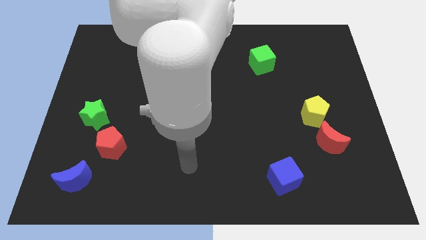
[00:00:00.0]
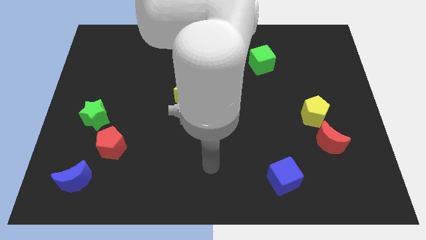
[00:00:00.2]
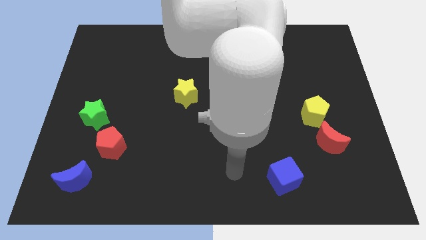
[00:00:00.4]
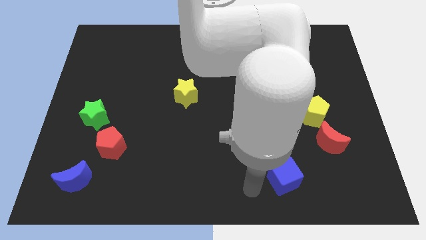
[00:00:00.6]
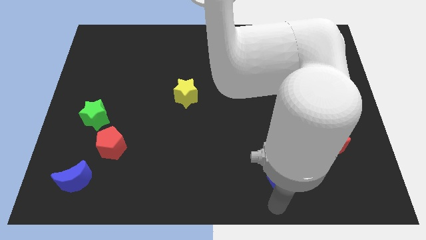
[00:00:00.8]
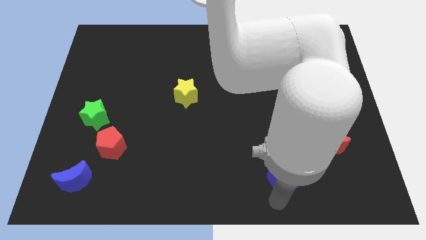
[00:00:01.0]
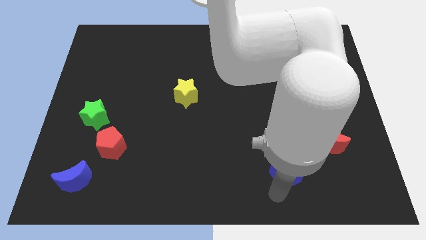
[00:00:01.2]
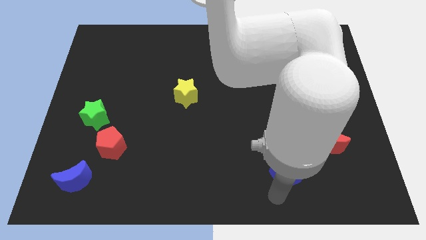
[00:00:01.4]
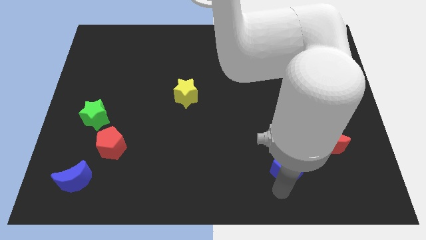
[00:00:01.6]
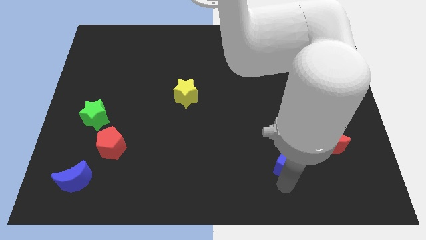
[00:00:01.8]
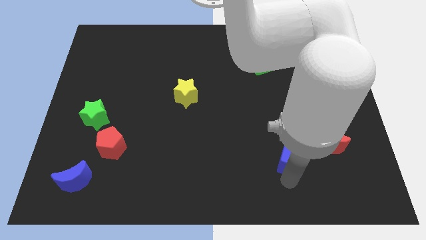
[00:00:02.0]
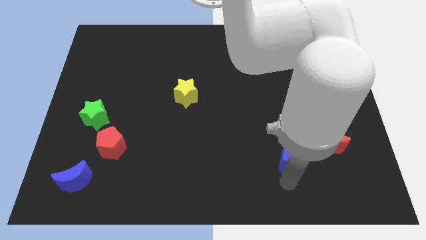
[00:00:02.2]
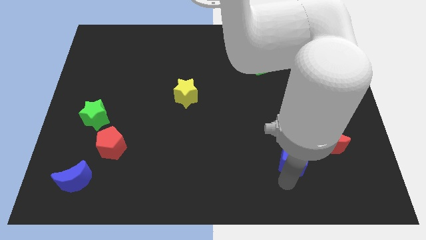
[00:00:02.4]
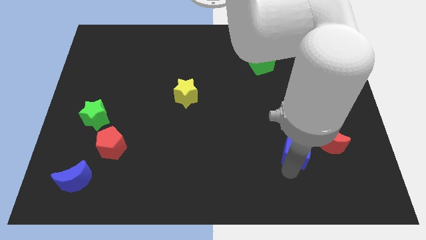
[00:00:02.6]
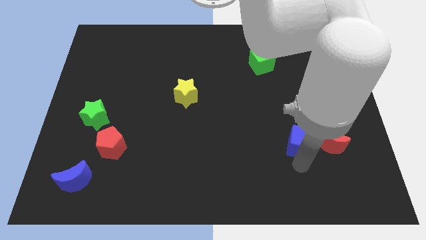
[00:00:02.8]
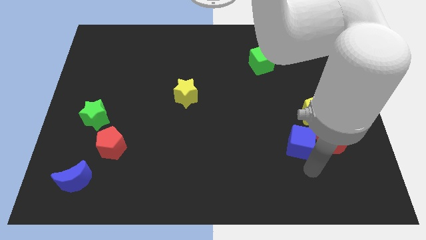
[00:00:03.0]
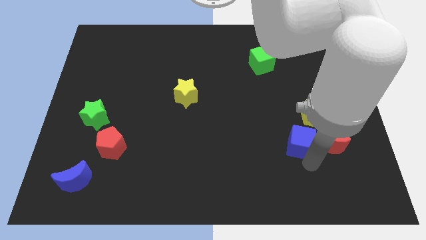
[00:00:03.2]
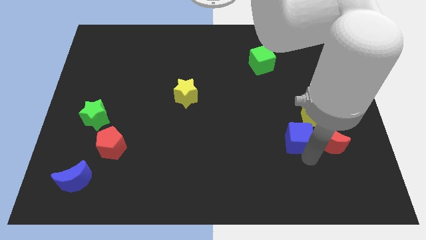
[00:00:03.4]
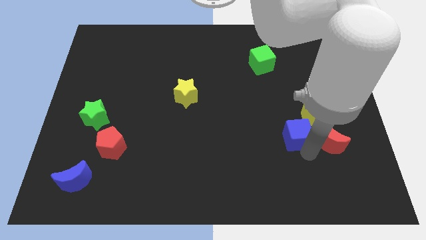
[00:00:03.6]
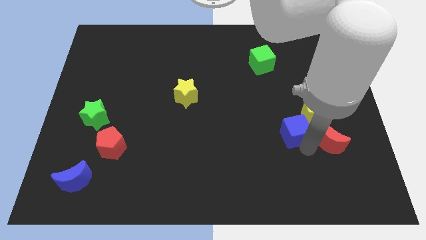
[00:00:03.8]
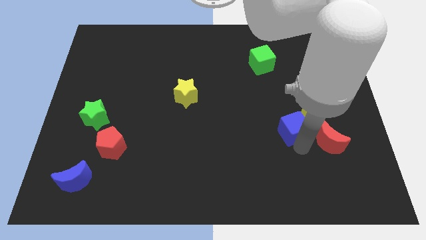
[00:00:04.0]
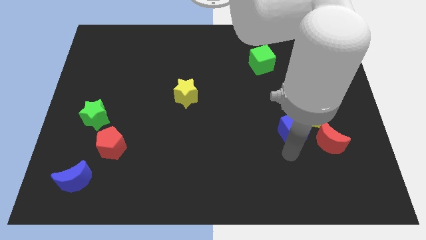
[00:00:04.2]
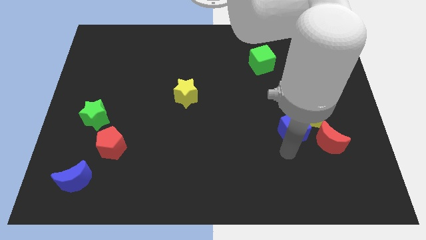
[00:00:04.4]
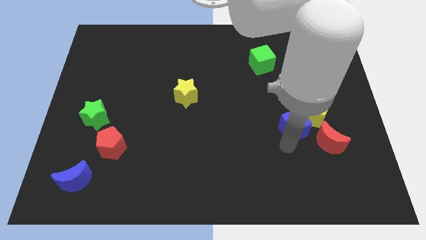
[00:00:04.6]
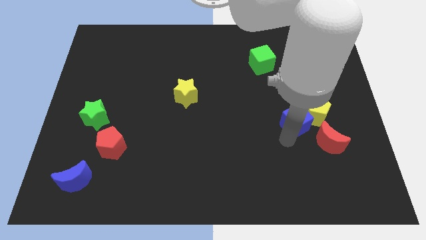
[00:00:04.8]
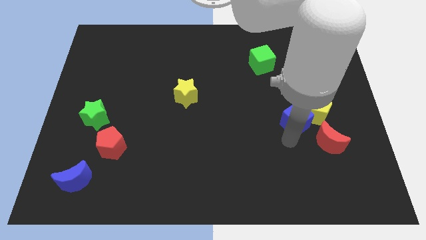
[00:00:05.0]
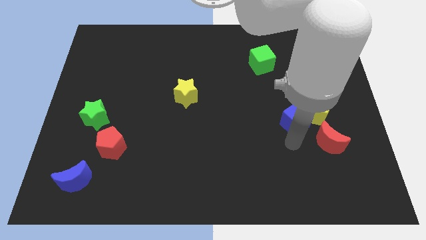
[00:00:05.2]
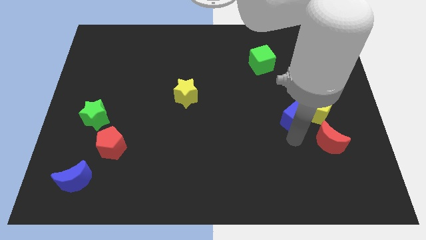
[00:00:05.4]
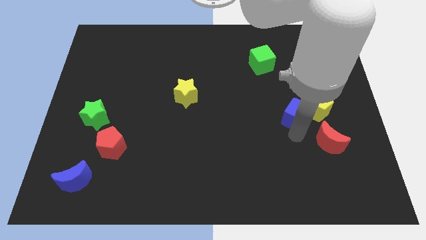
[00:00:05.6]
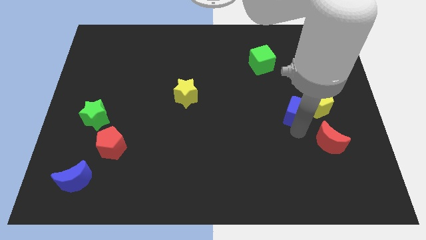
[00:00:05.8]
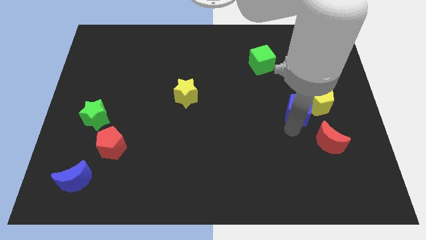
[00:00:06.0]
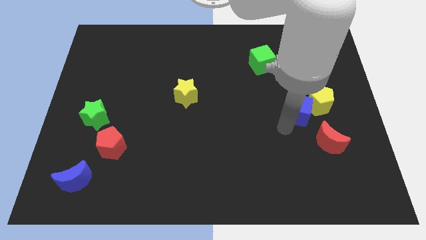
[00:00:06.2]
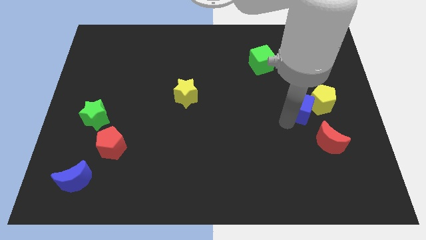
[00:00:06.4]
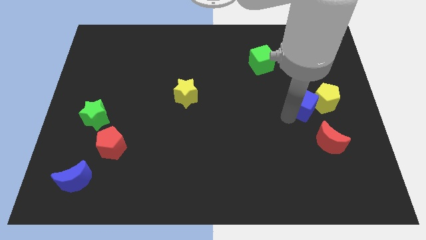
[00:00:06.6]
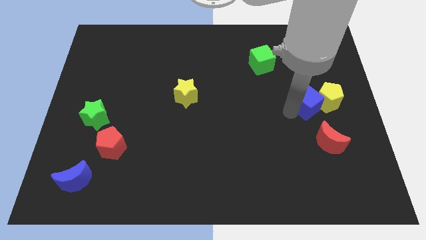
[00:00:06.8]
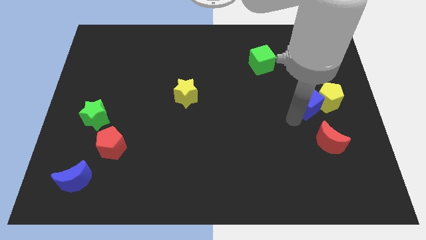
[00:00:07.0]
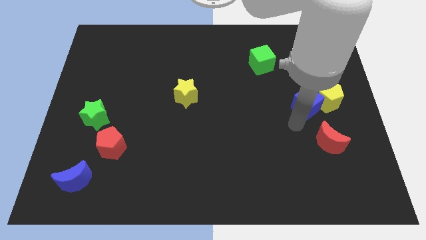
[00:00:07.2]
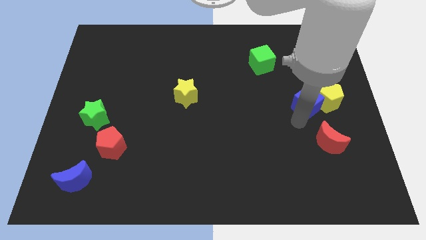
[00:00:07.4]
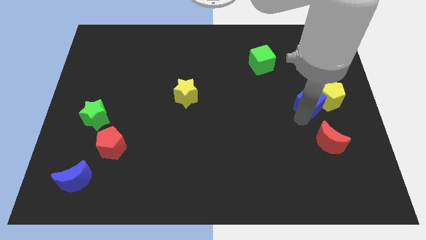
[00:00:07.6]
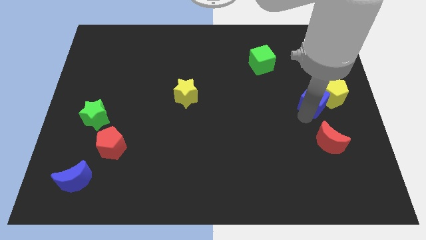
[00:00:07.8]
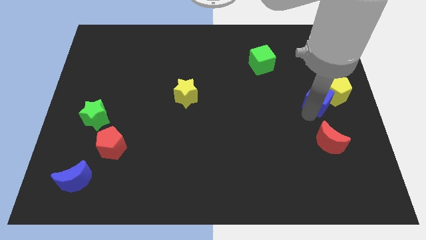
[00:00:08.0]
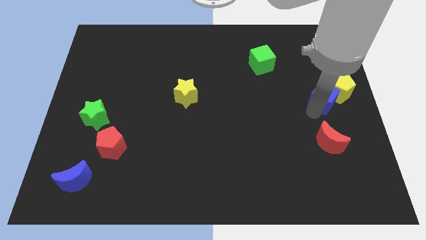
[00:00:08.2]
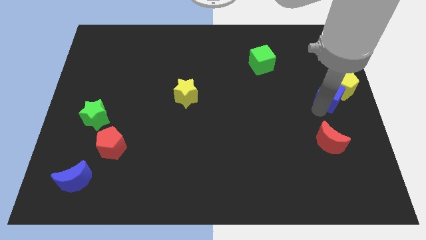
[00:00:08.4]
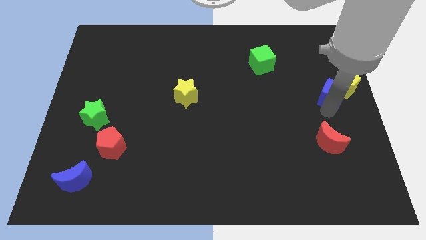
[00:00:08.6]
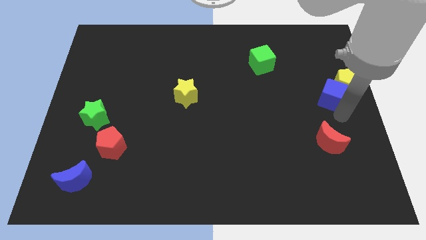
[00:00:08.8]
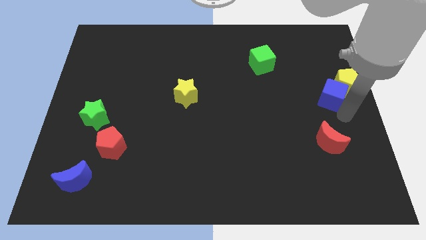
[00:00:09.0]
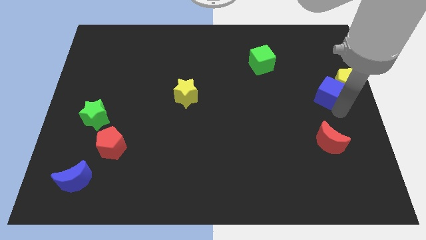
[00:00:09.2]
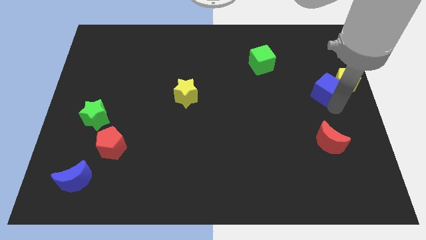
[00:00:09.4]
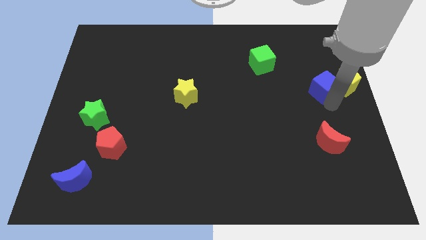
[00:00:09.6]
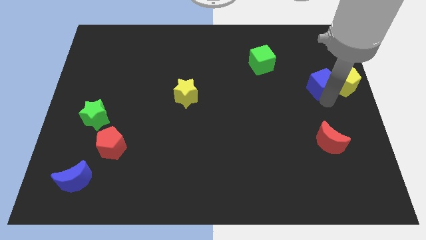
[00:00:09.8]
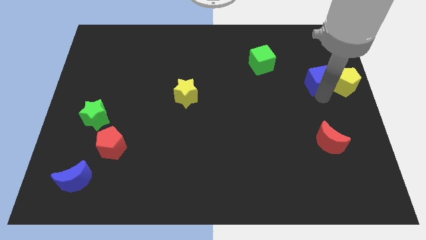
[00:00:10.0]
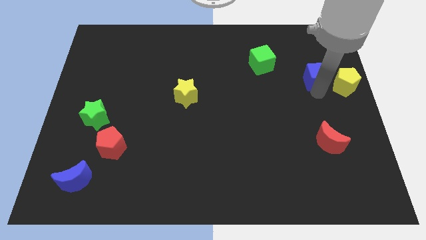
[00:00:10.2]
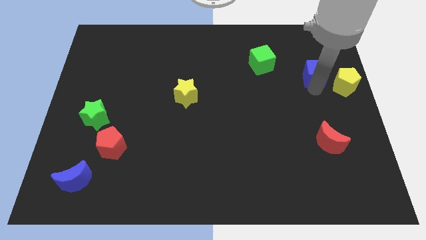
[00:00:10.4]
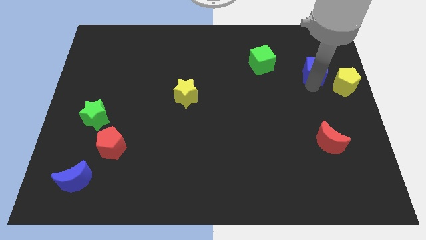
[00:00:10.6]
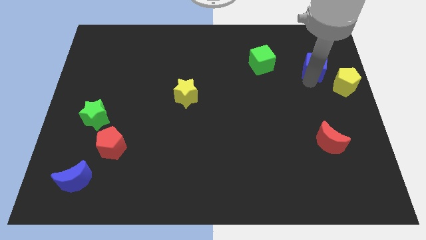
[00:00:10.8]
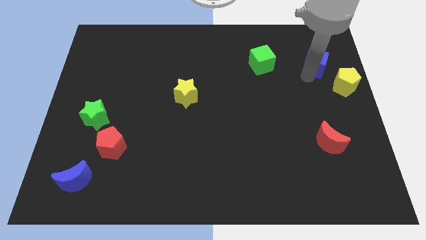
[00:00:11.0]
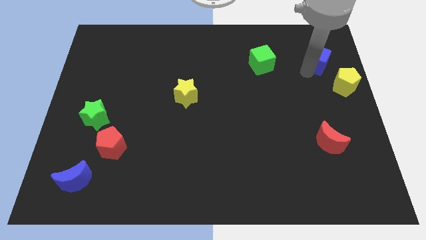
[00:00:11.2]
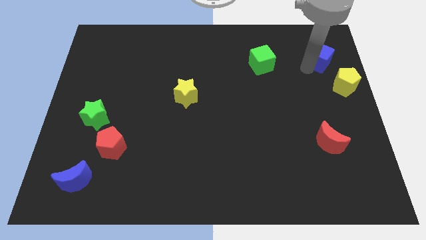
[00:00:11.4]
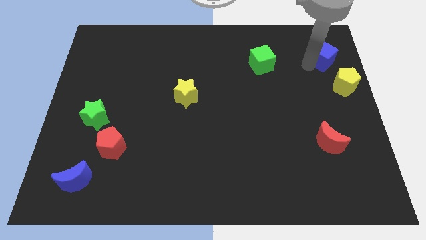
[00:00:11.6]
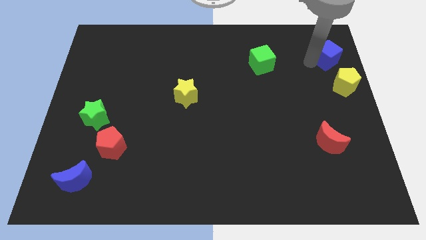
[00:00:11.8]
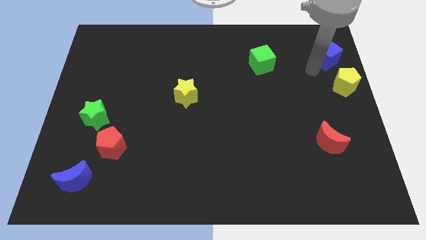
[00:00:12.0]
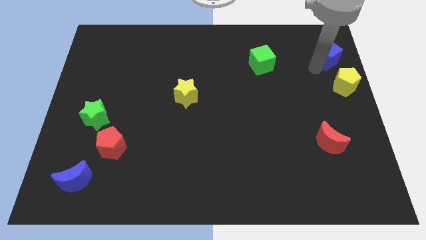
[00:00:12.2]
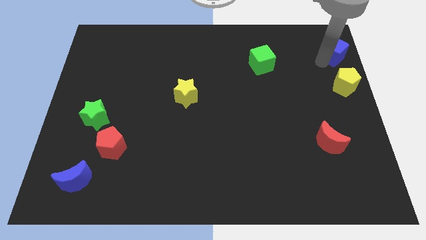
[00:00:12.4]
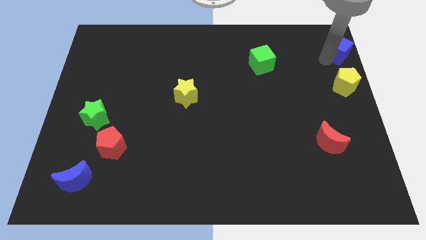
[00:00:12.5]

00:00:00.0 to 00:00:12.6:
slide the blue cube to the top right corner
